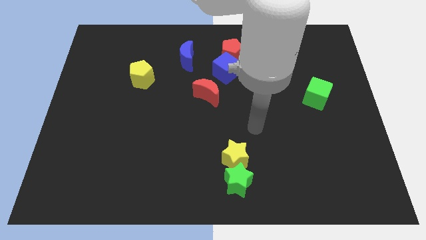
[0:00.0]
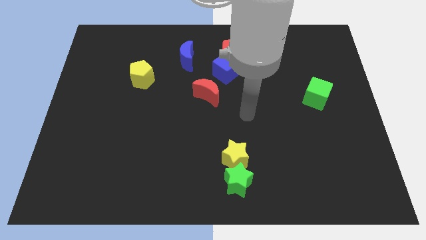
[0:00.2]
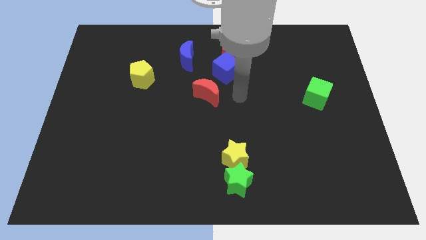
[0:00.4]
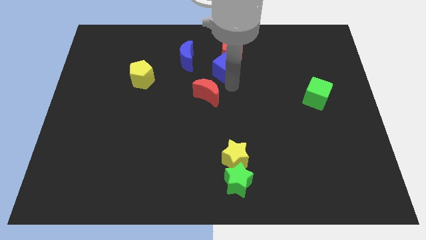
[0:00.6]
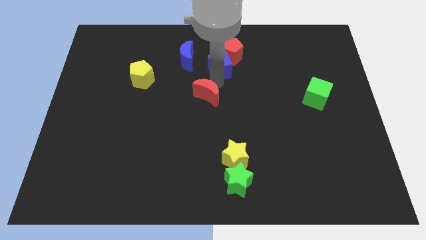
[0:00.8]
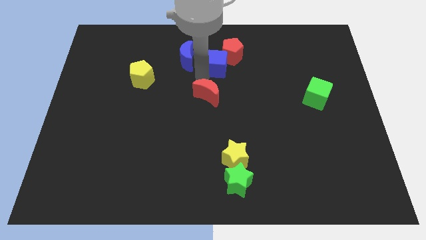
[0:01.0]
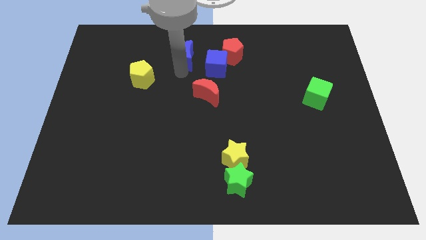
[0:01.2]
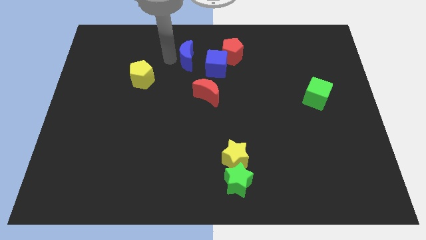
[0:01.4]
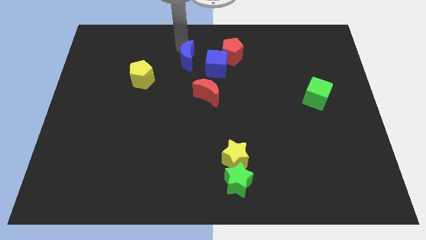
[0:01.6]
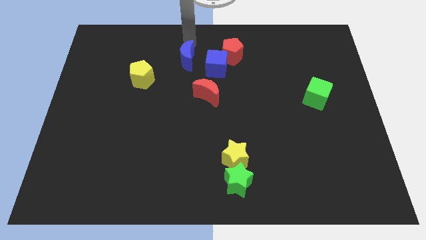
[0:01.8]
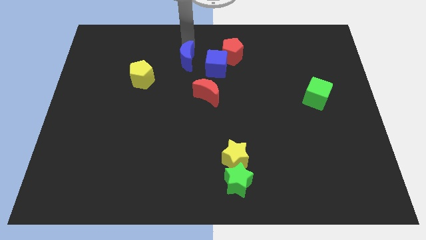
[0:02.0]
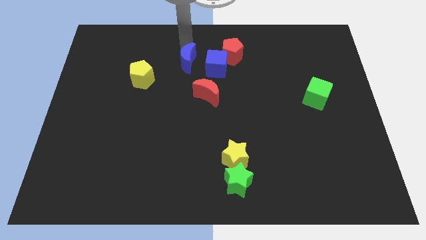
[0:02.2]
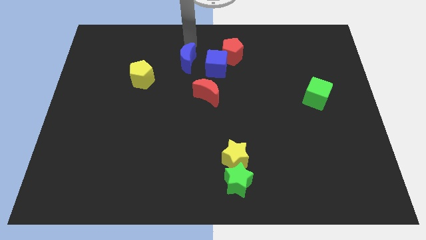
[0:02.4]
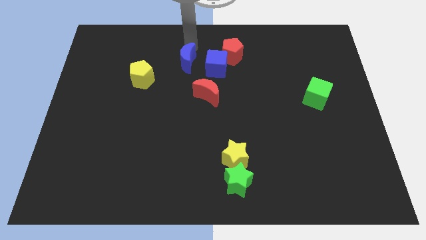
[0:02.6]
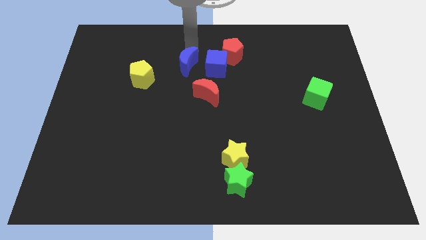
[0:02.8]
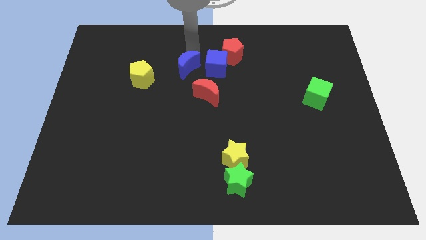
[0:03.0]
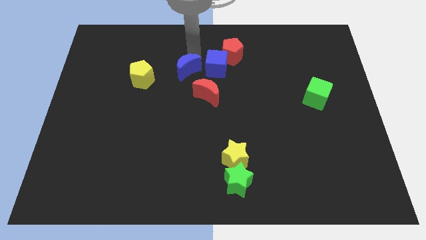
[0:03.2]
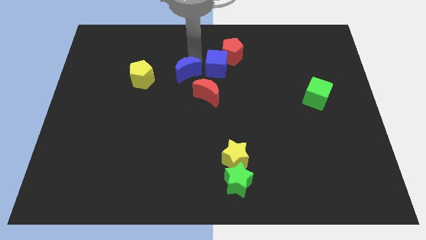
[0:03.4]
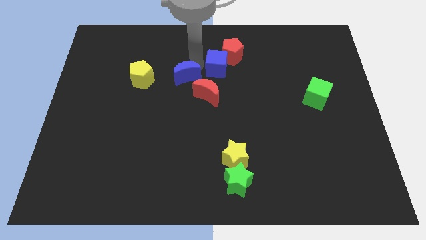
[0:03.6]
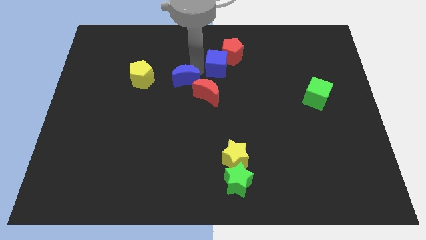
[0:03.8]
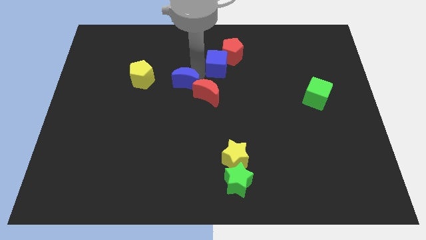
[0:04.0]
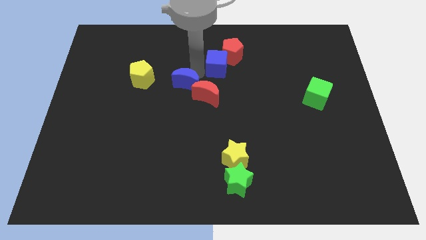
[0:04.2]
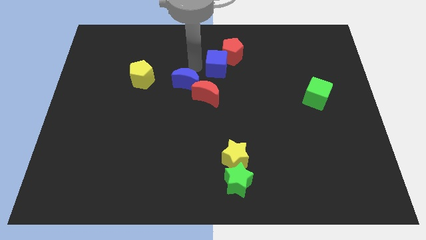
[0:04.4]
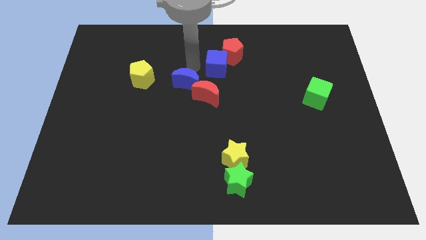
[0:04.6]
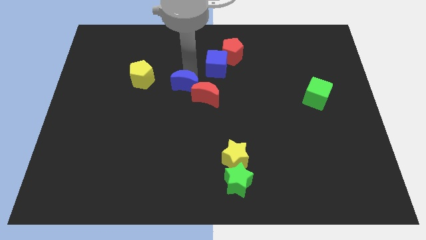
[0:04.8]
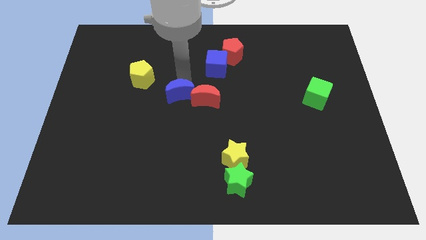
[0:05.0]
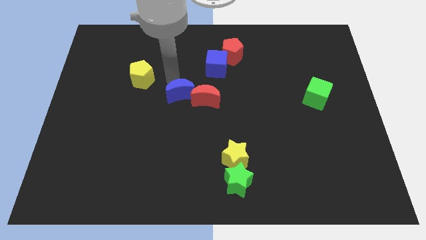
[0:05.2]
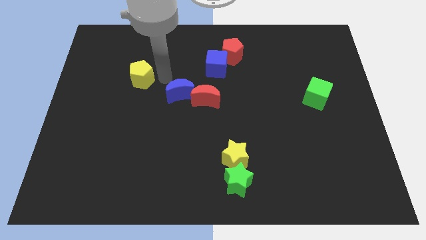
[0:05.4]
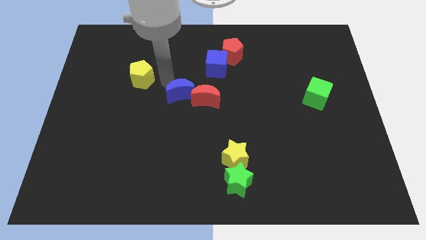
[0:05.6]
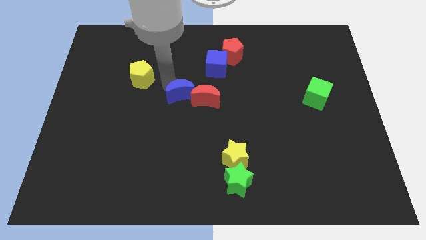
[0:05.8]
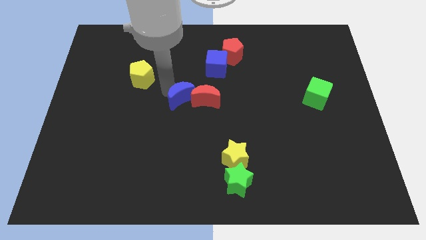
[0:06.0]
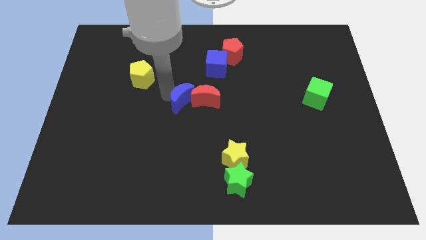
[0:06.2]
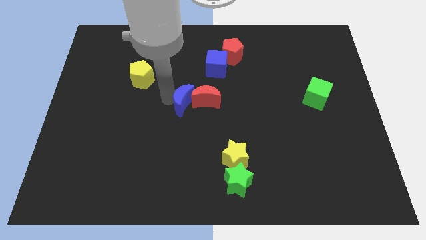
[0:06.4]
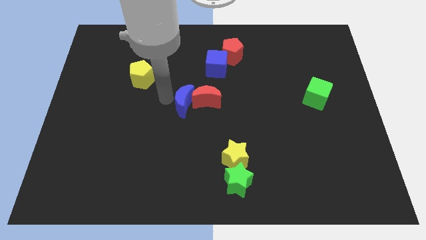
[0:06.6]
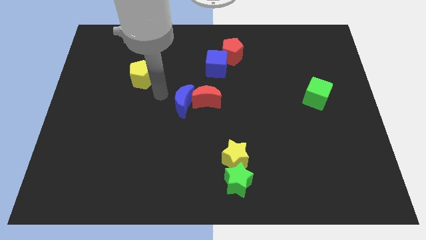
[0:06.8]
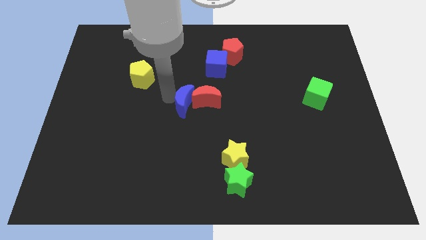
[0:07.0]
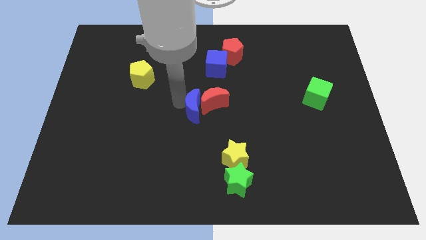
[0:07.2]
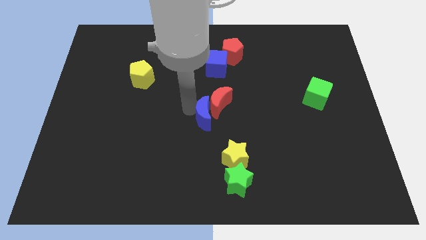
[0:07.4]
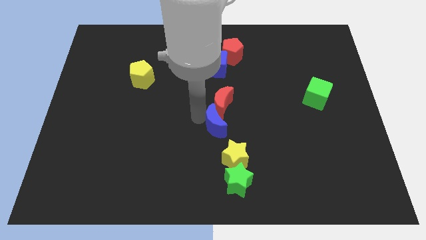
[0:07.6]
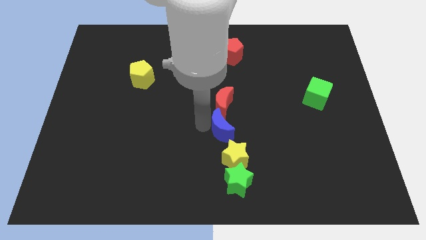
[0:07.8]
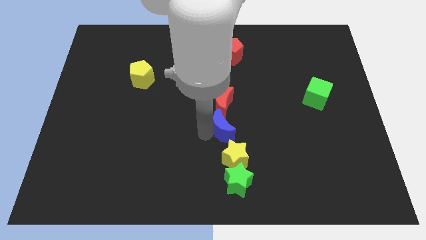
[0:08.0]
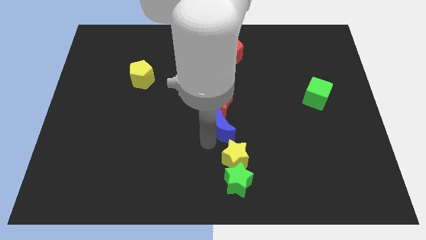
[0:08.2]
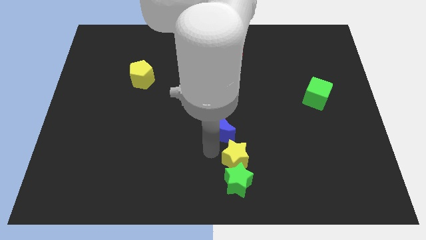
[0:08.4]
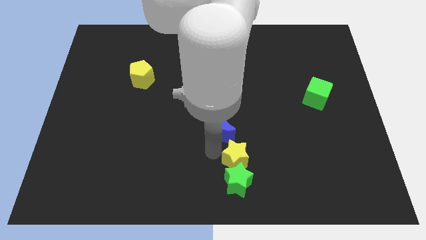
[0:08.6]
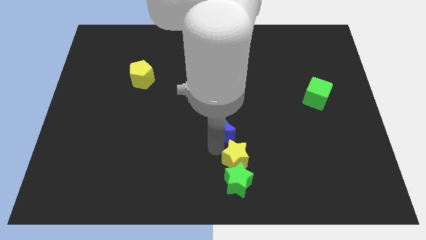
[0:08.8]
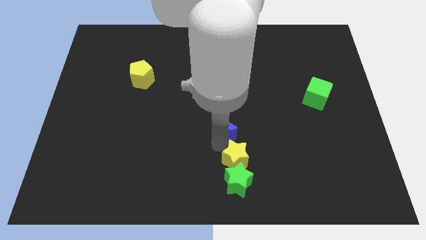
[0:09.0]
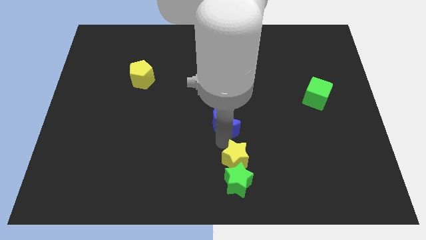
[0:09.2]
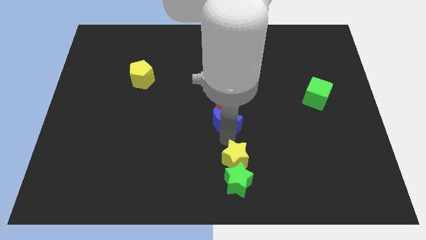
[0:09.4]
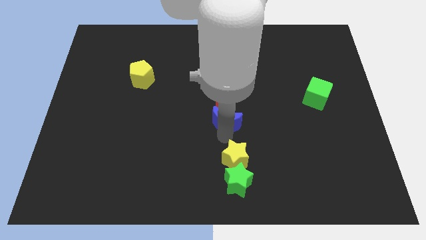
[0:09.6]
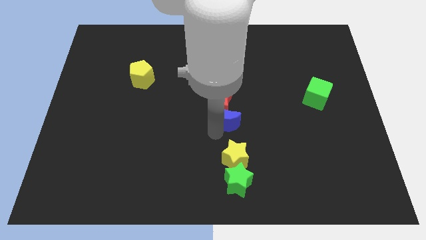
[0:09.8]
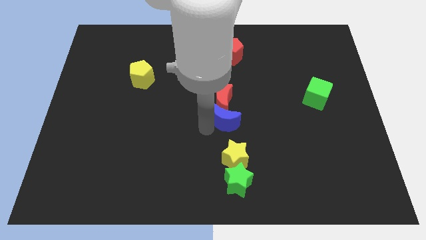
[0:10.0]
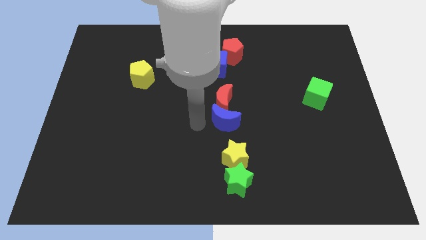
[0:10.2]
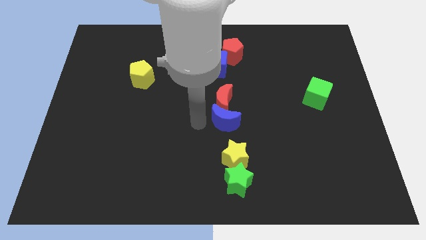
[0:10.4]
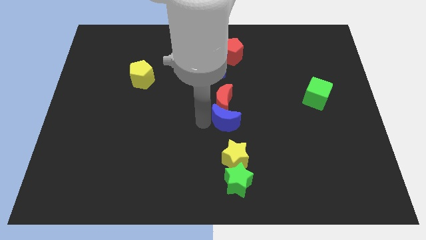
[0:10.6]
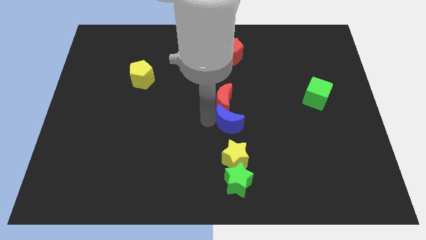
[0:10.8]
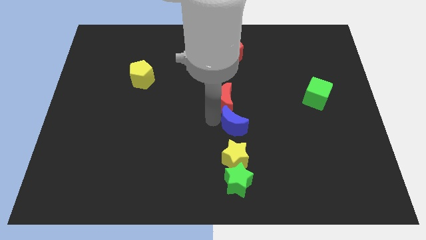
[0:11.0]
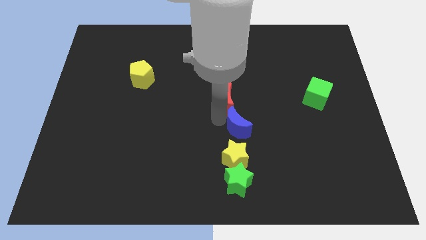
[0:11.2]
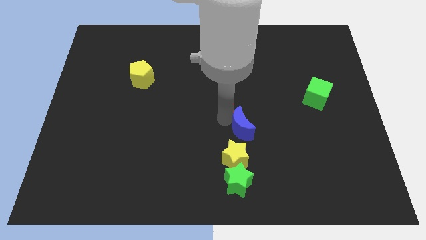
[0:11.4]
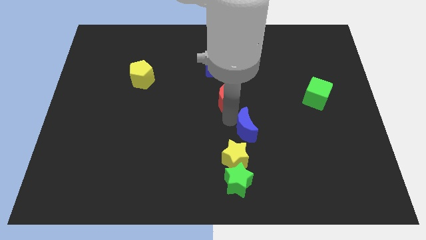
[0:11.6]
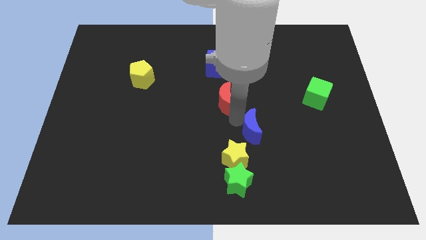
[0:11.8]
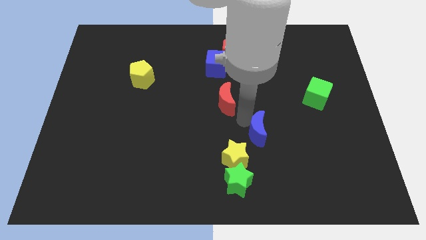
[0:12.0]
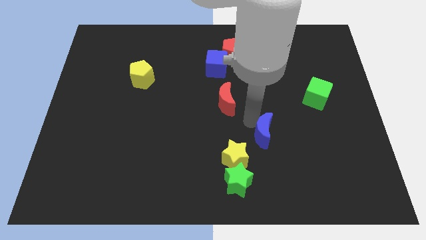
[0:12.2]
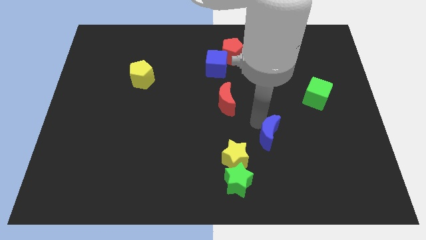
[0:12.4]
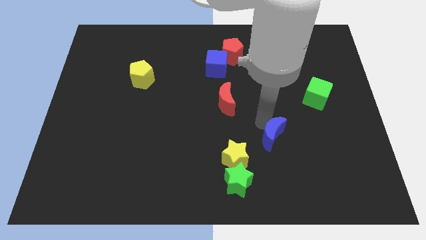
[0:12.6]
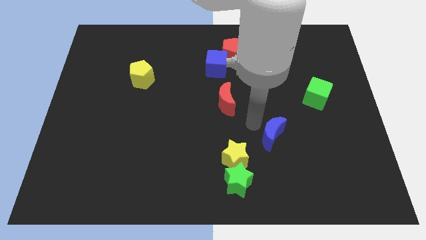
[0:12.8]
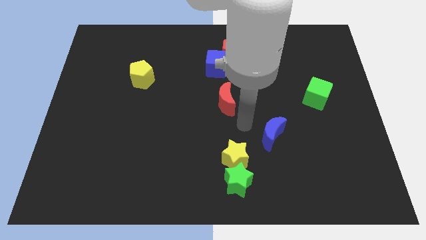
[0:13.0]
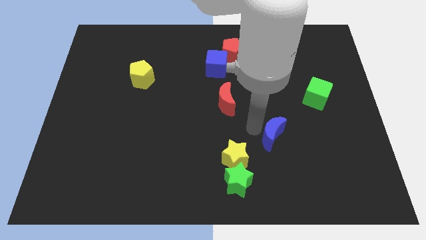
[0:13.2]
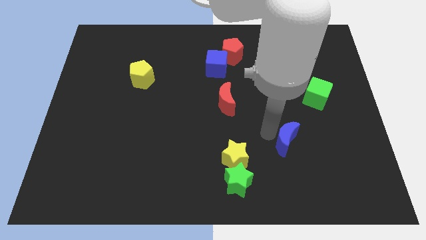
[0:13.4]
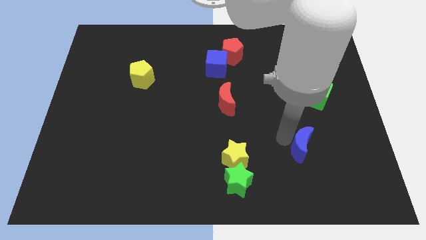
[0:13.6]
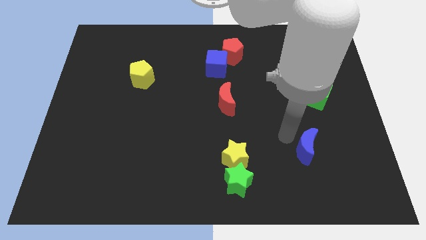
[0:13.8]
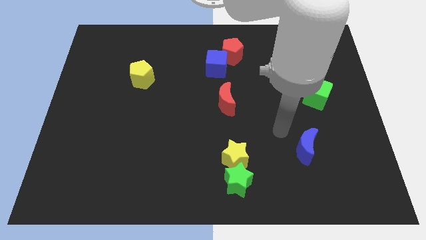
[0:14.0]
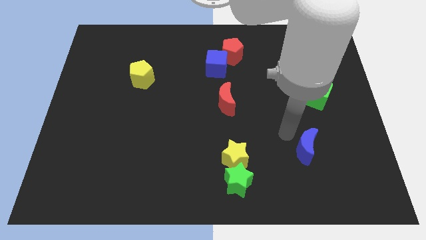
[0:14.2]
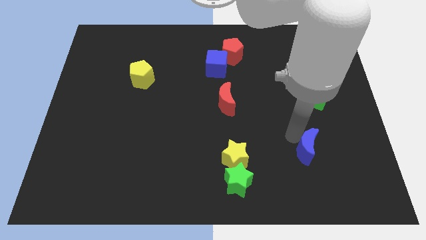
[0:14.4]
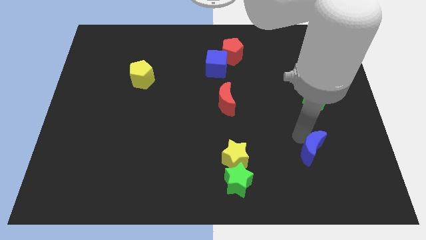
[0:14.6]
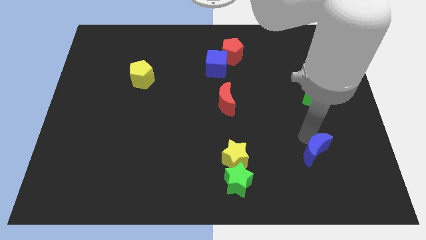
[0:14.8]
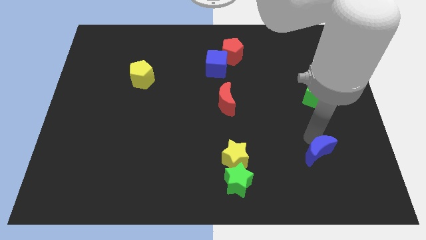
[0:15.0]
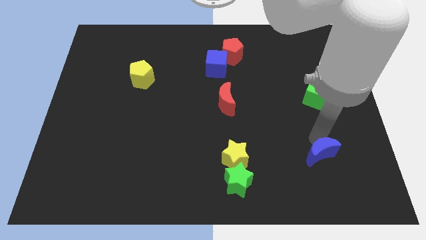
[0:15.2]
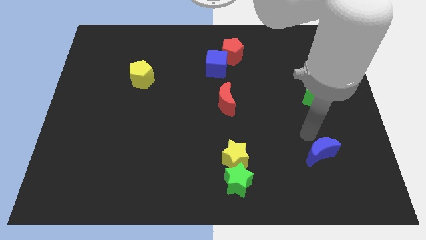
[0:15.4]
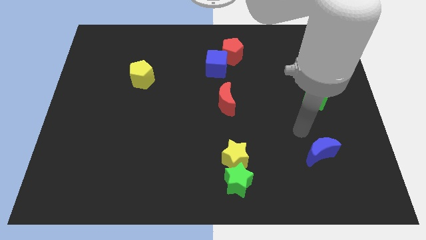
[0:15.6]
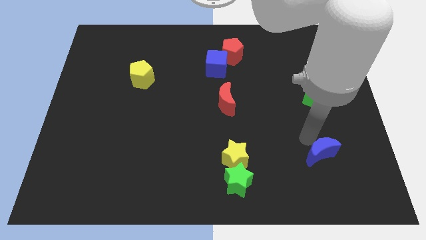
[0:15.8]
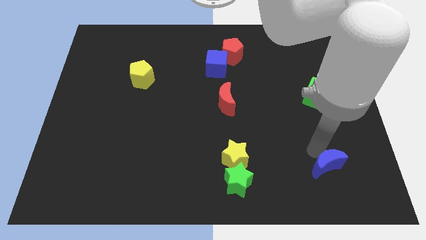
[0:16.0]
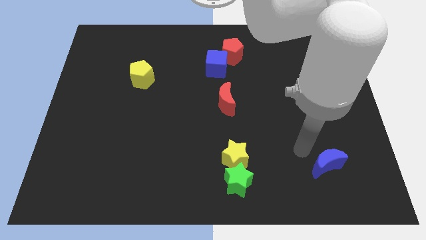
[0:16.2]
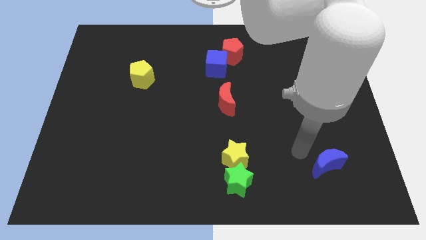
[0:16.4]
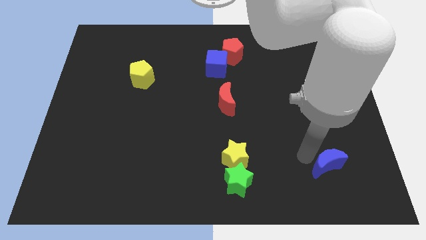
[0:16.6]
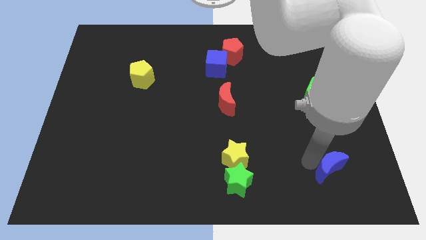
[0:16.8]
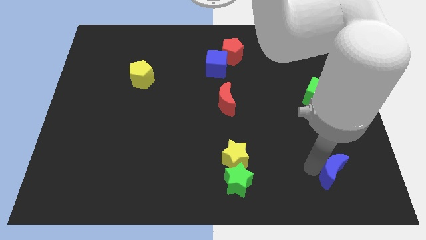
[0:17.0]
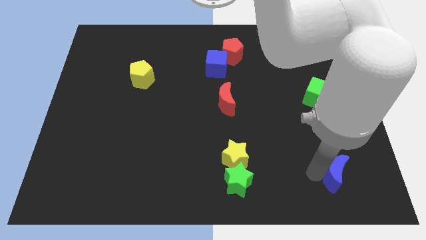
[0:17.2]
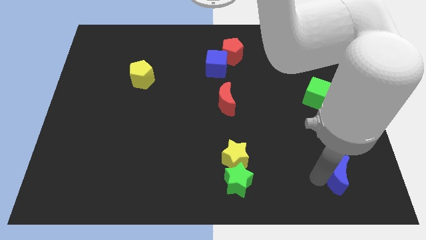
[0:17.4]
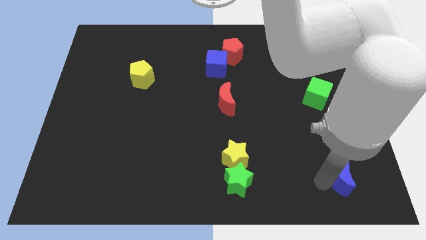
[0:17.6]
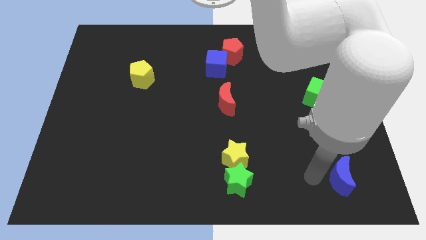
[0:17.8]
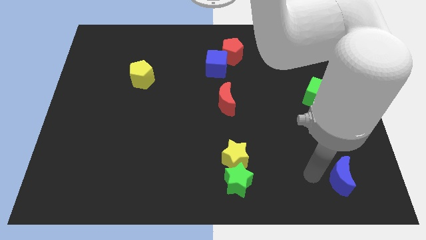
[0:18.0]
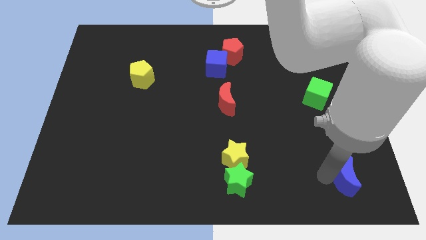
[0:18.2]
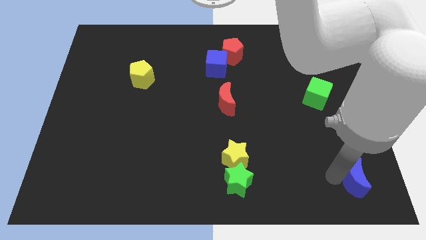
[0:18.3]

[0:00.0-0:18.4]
put the blue moon to the bottom right of the board
